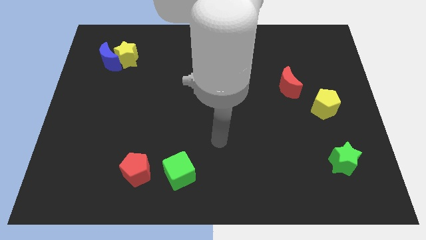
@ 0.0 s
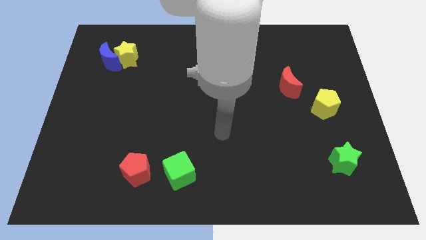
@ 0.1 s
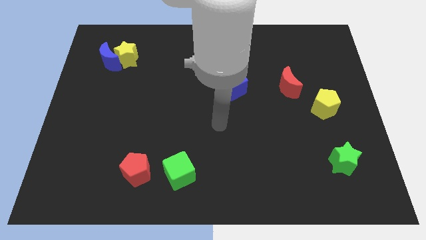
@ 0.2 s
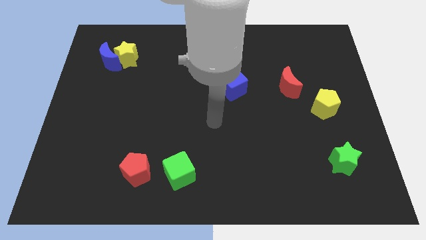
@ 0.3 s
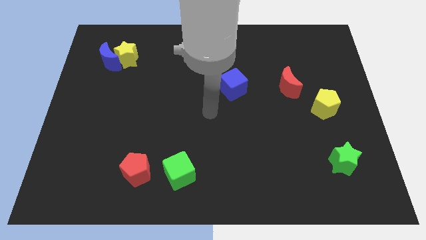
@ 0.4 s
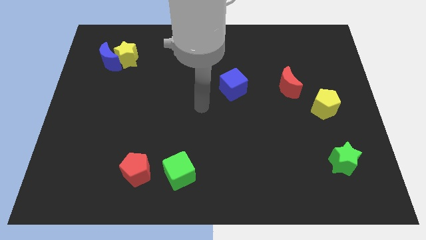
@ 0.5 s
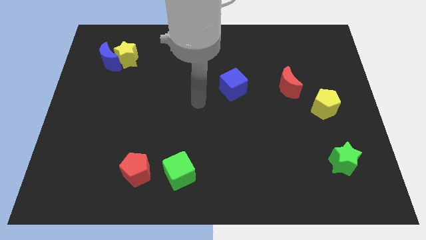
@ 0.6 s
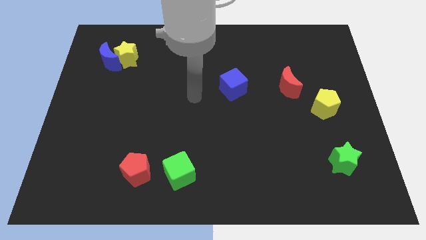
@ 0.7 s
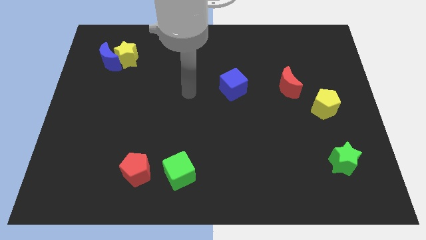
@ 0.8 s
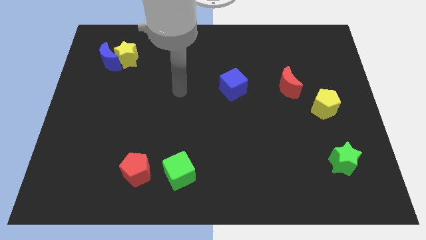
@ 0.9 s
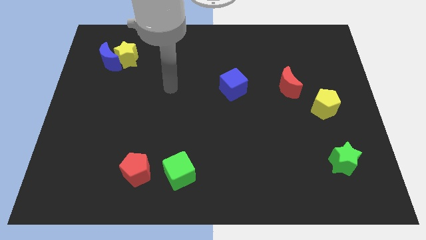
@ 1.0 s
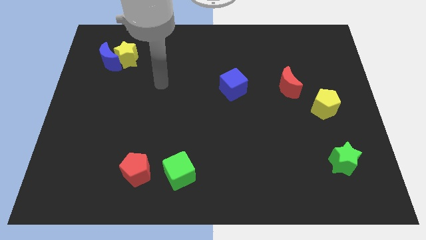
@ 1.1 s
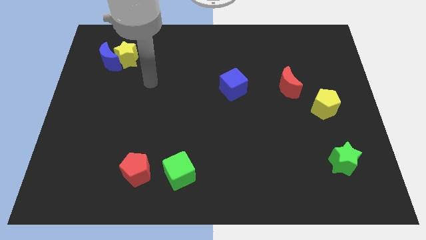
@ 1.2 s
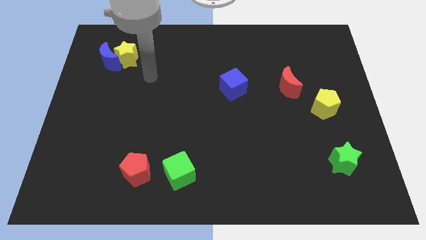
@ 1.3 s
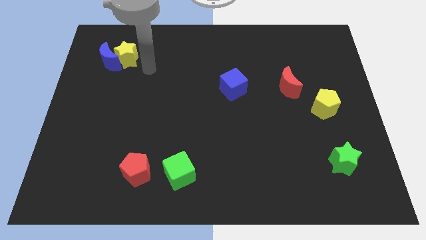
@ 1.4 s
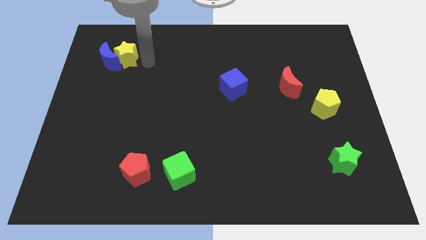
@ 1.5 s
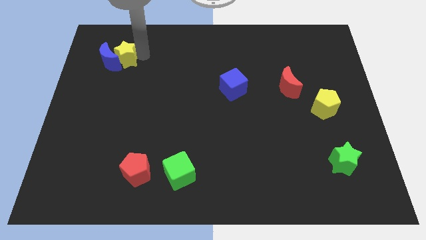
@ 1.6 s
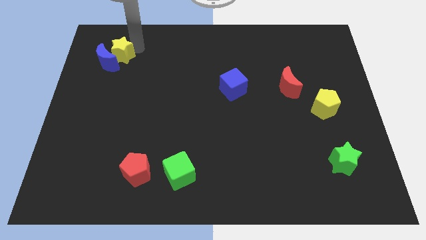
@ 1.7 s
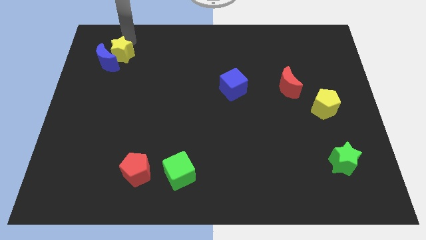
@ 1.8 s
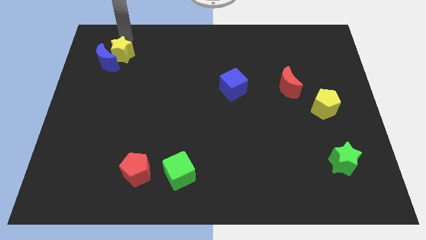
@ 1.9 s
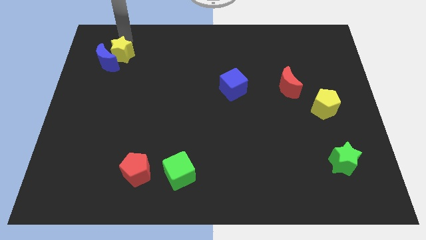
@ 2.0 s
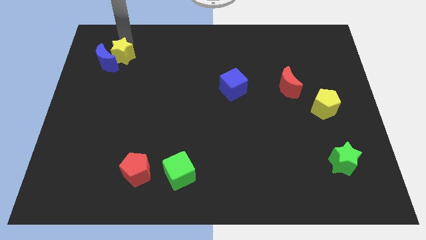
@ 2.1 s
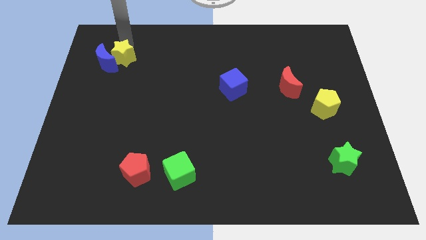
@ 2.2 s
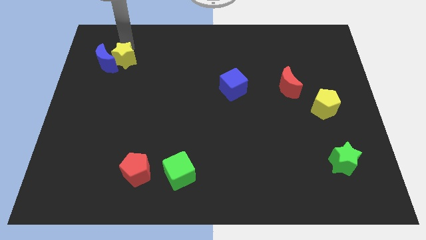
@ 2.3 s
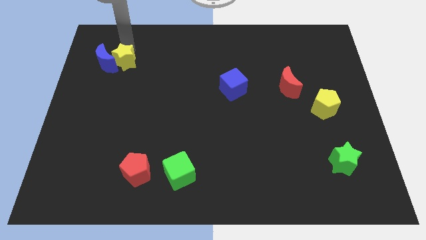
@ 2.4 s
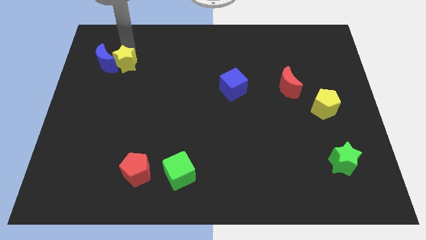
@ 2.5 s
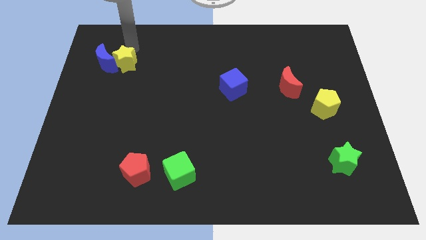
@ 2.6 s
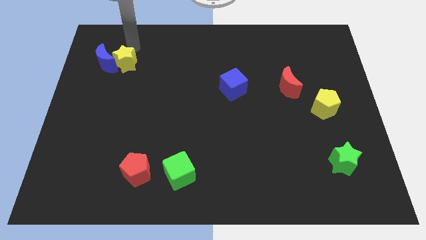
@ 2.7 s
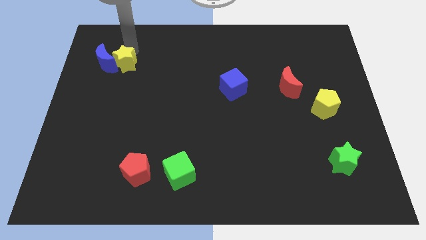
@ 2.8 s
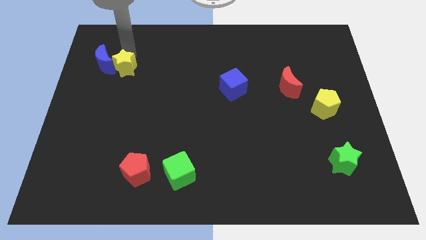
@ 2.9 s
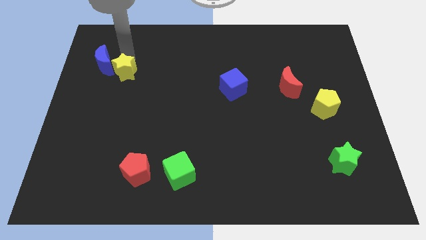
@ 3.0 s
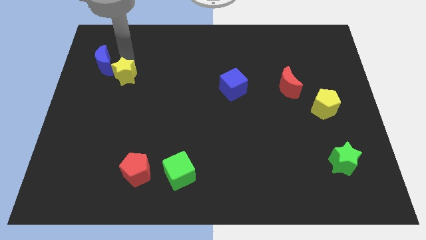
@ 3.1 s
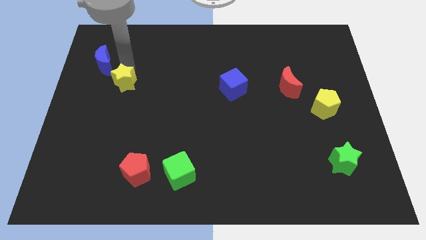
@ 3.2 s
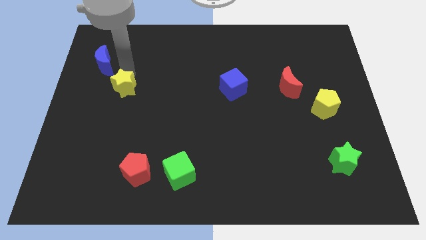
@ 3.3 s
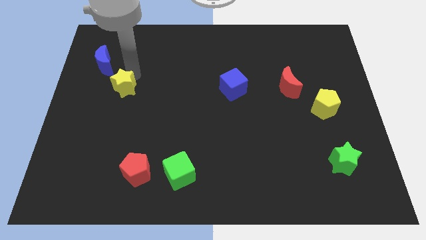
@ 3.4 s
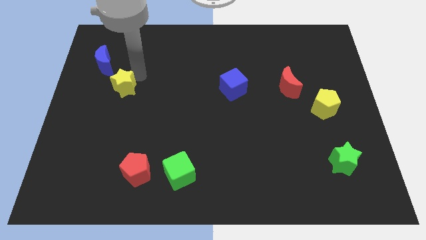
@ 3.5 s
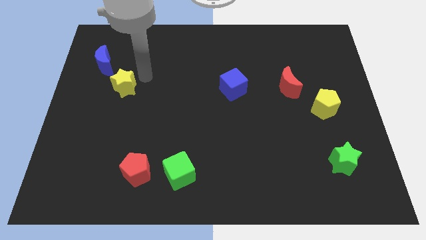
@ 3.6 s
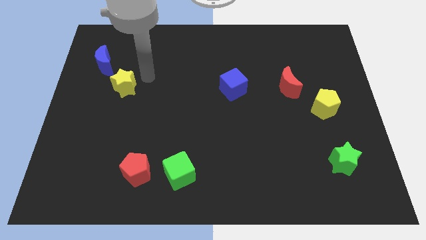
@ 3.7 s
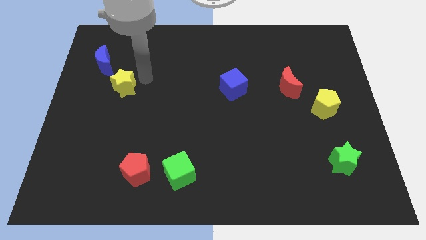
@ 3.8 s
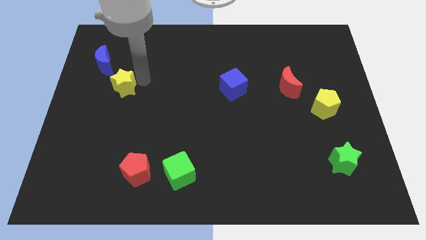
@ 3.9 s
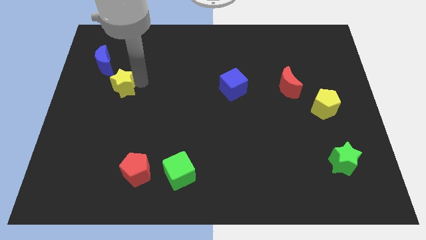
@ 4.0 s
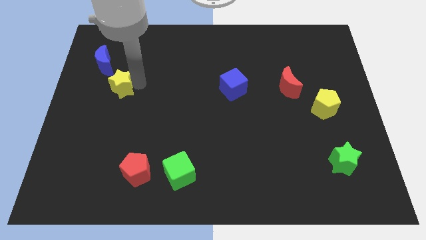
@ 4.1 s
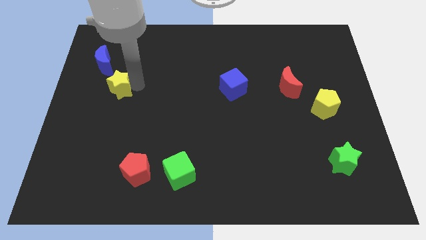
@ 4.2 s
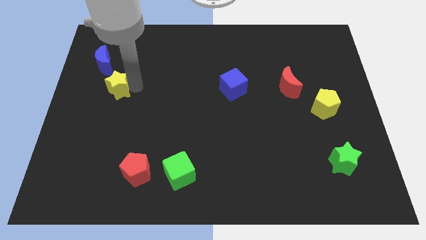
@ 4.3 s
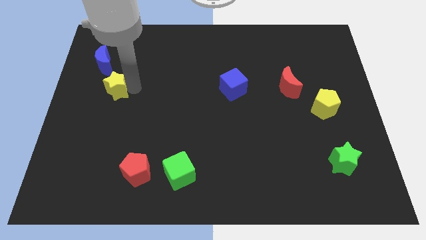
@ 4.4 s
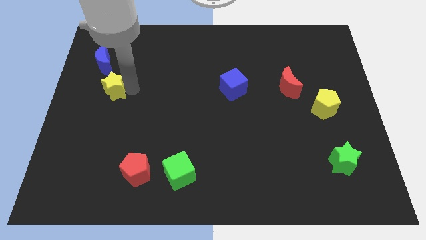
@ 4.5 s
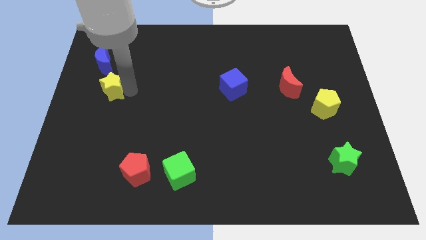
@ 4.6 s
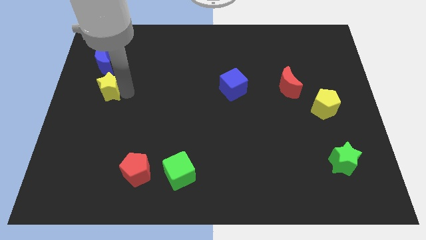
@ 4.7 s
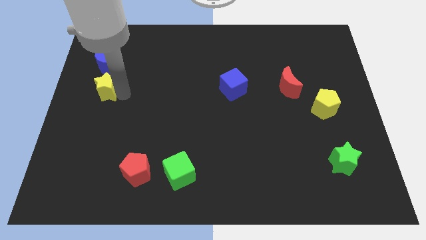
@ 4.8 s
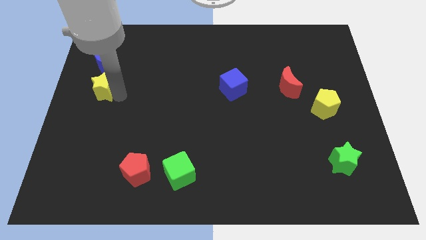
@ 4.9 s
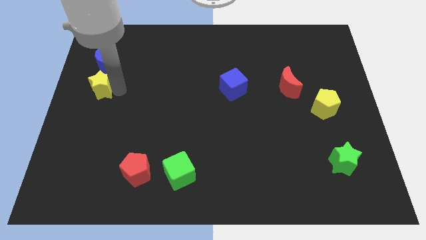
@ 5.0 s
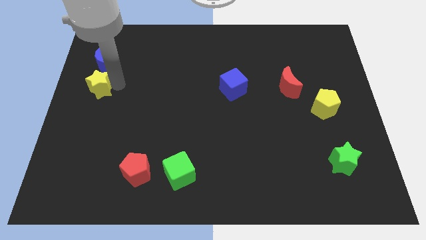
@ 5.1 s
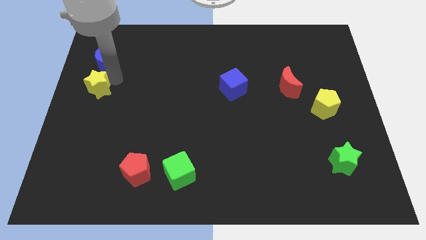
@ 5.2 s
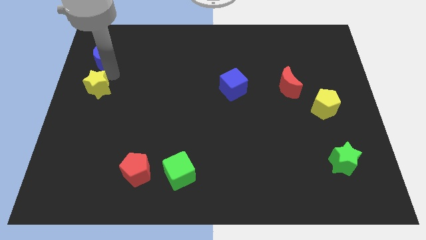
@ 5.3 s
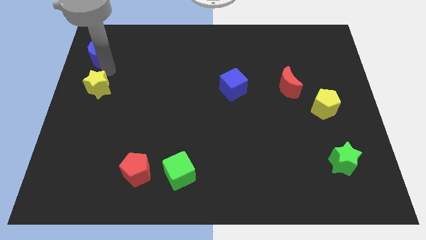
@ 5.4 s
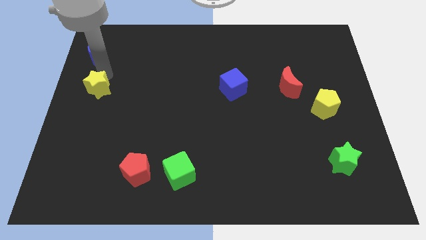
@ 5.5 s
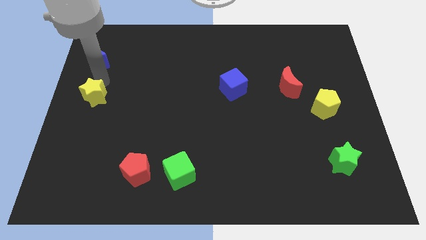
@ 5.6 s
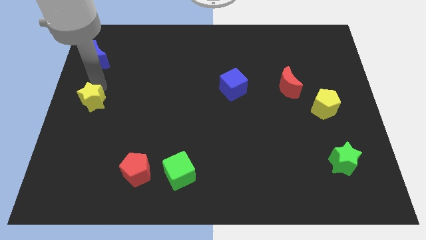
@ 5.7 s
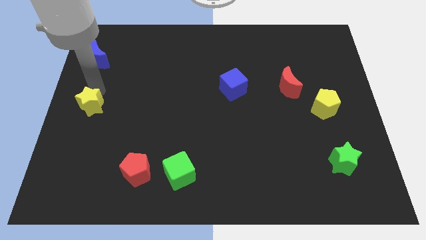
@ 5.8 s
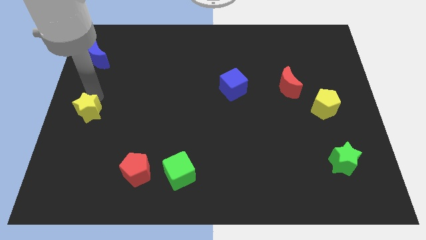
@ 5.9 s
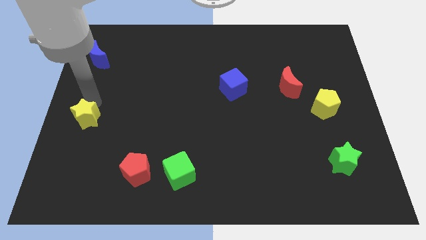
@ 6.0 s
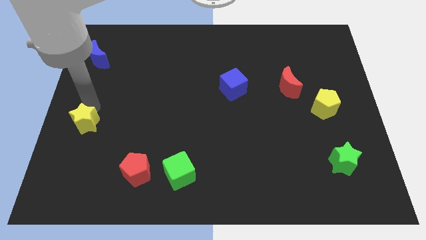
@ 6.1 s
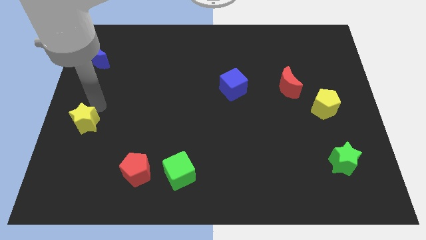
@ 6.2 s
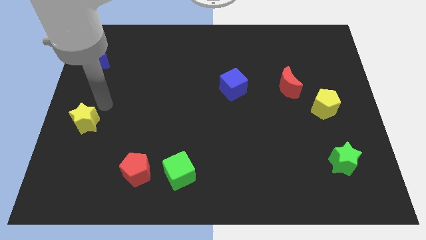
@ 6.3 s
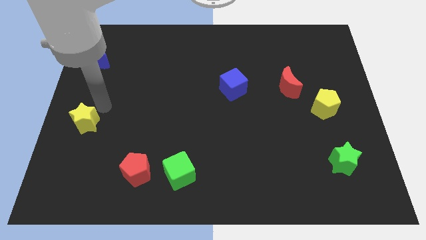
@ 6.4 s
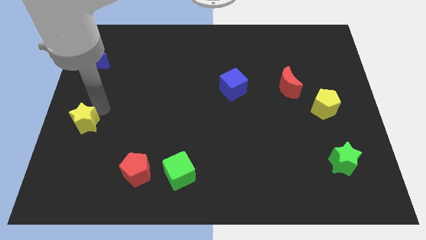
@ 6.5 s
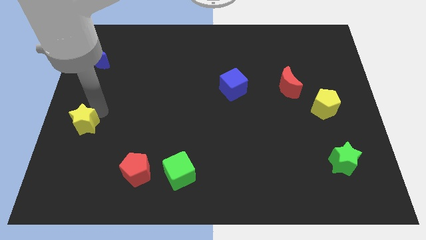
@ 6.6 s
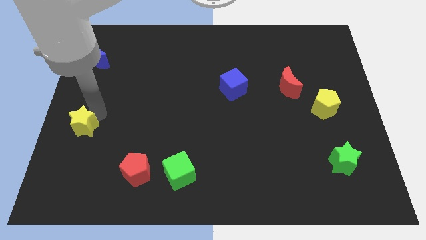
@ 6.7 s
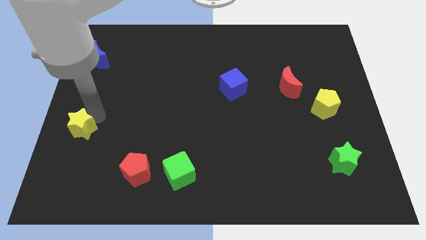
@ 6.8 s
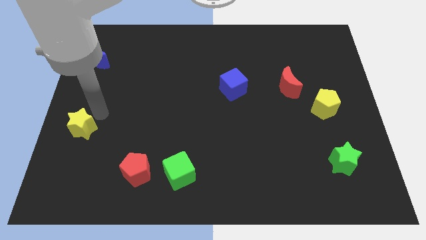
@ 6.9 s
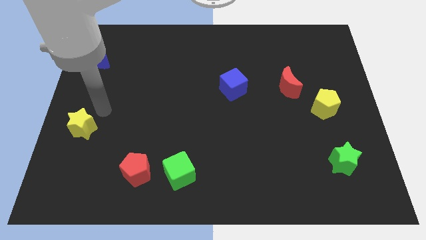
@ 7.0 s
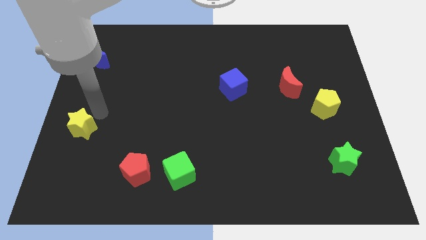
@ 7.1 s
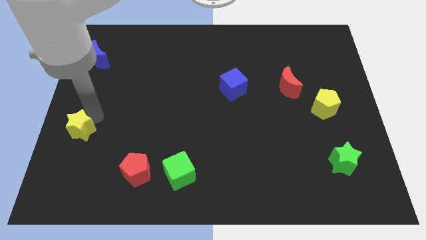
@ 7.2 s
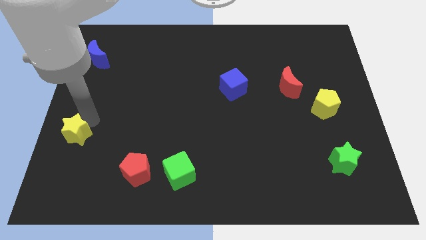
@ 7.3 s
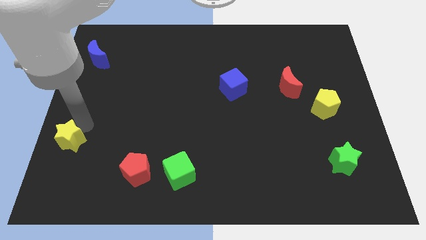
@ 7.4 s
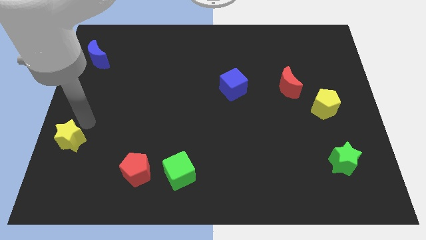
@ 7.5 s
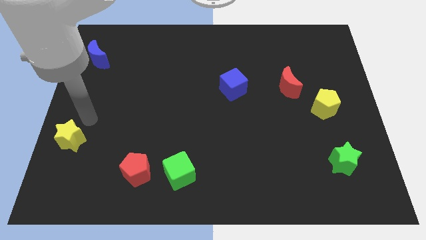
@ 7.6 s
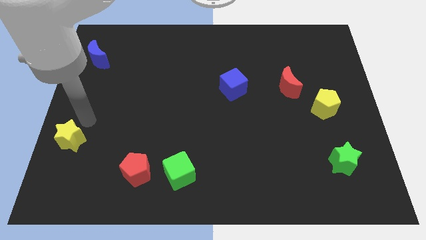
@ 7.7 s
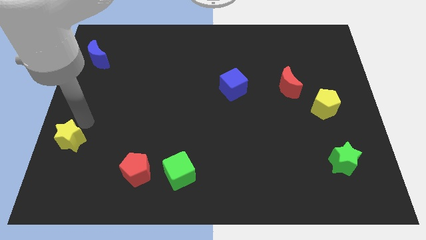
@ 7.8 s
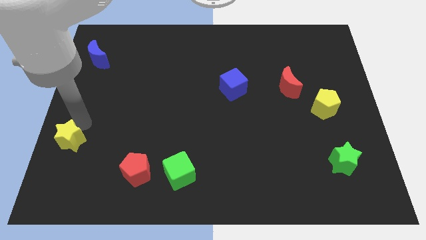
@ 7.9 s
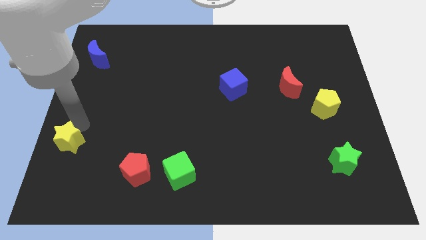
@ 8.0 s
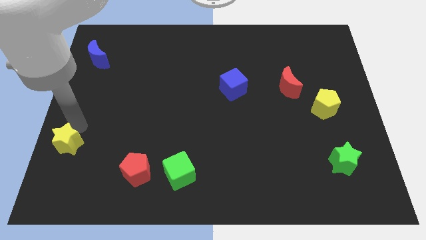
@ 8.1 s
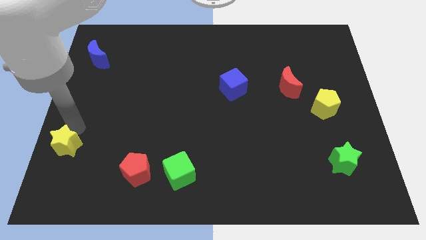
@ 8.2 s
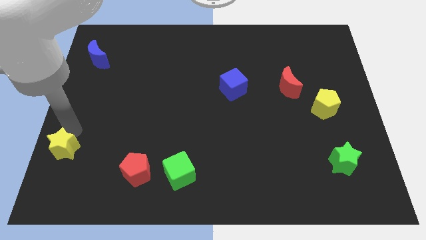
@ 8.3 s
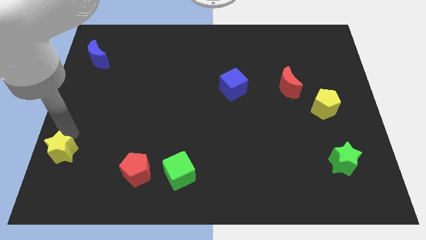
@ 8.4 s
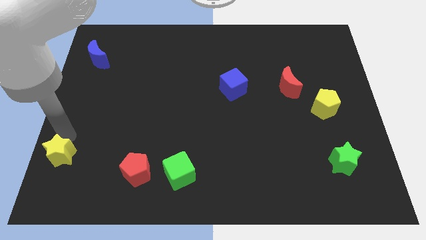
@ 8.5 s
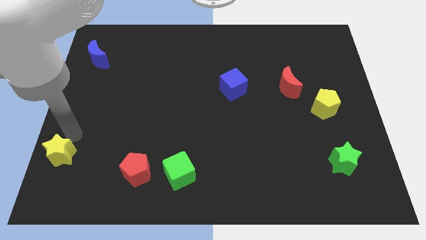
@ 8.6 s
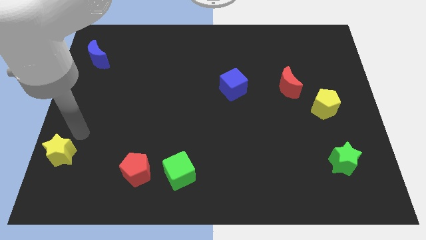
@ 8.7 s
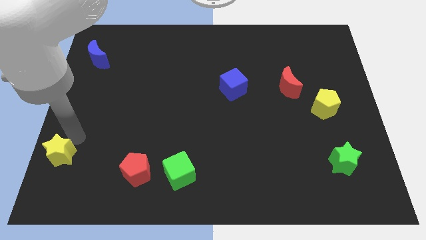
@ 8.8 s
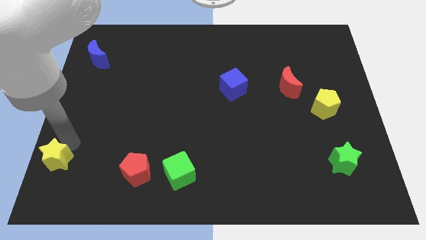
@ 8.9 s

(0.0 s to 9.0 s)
slide the yellow star to the lower left corner
